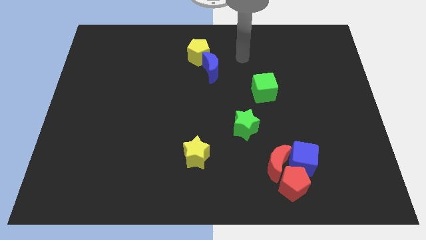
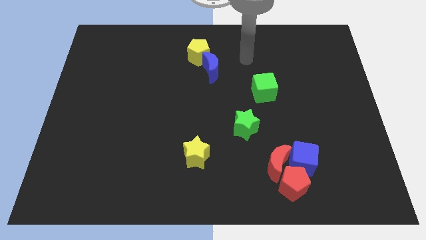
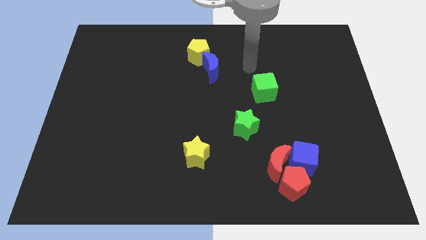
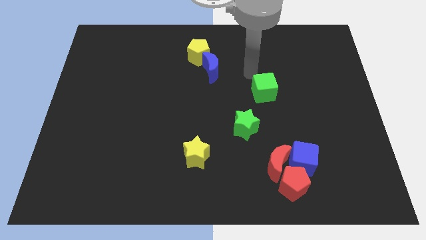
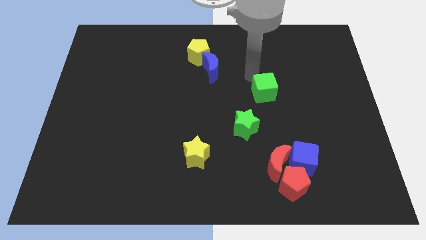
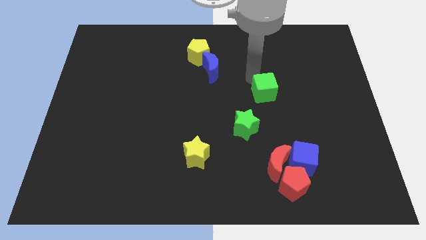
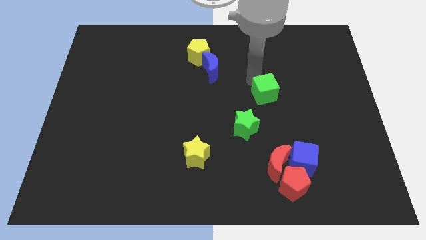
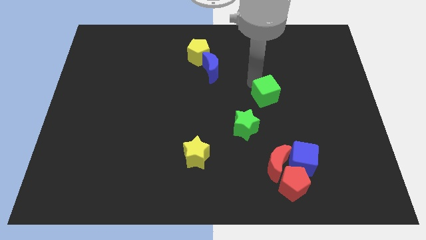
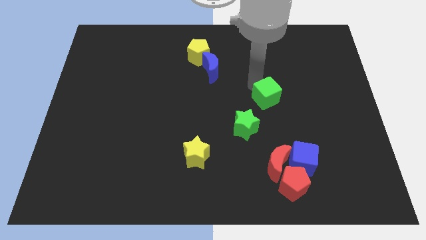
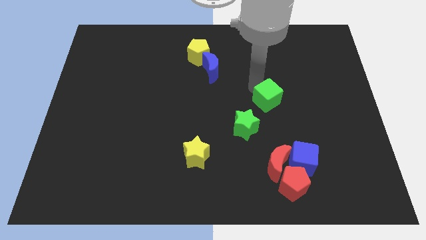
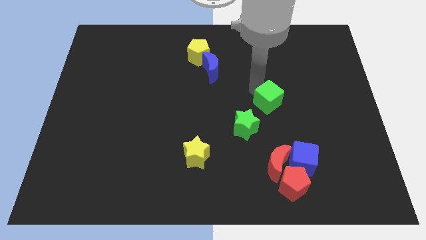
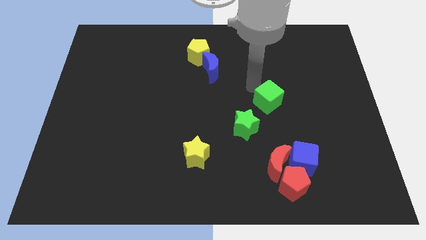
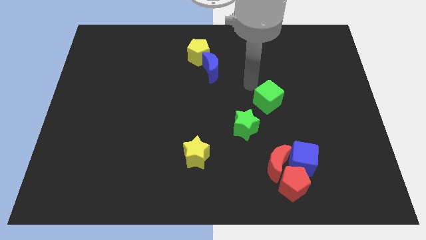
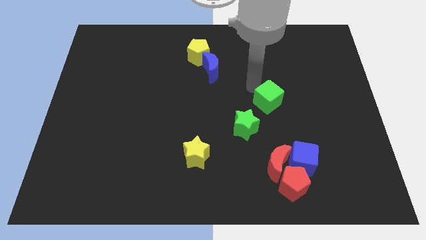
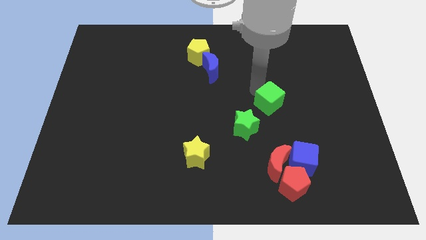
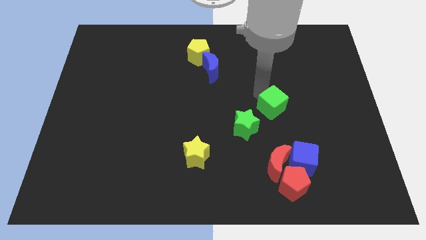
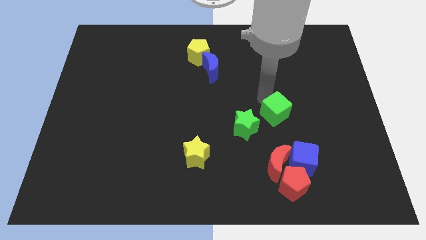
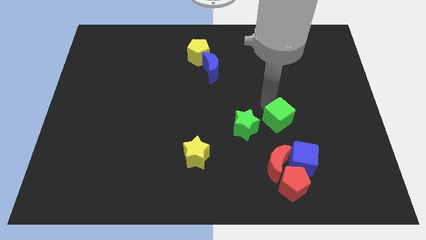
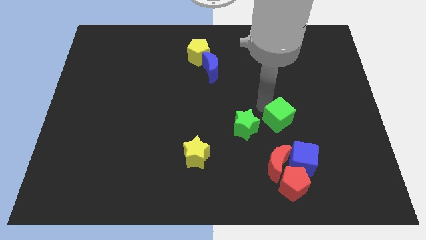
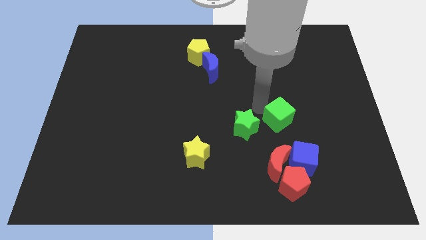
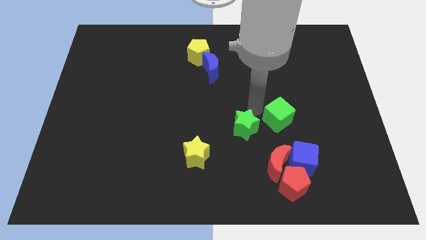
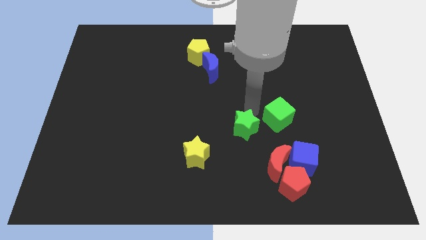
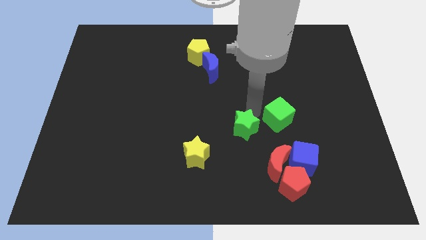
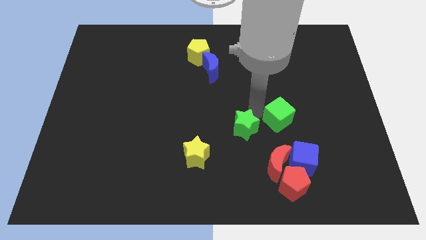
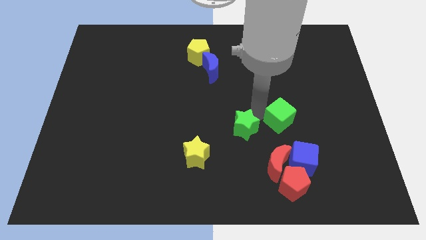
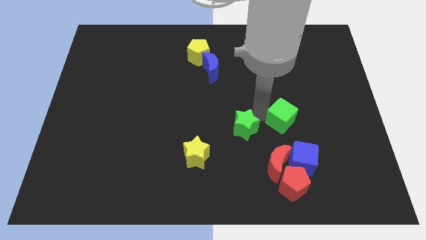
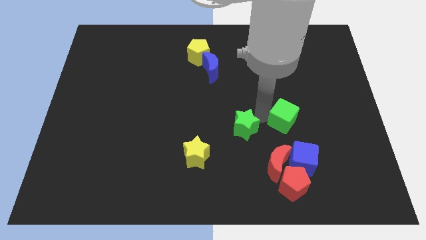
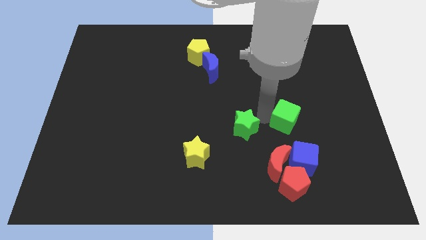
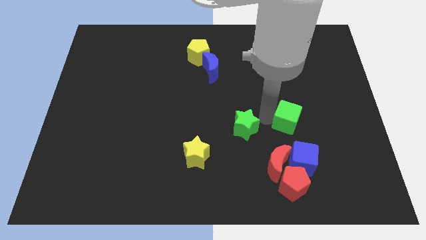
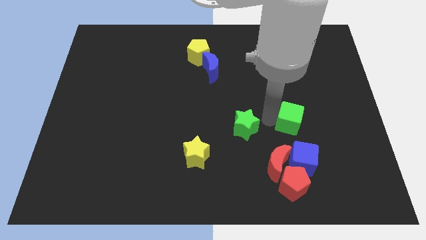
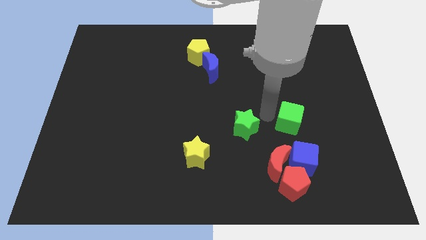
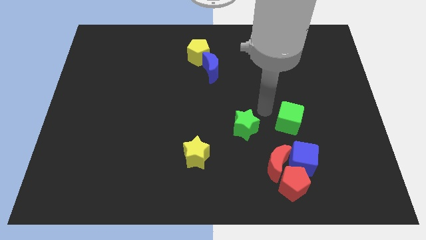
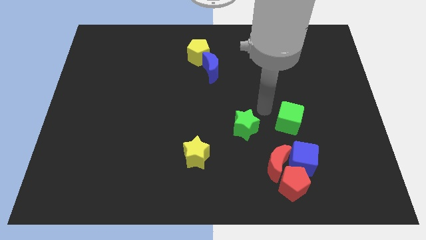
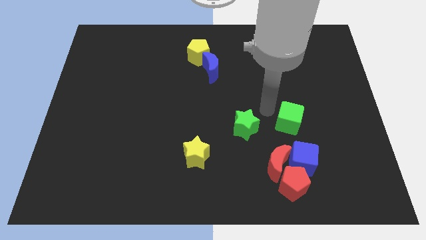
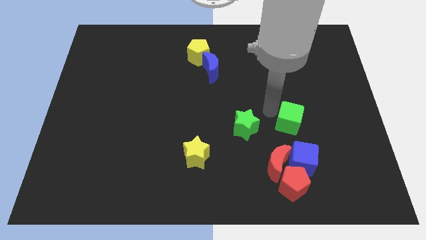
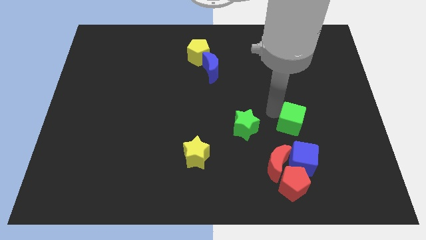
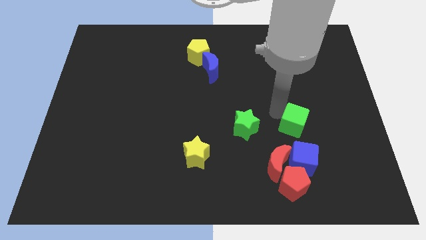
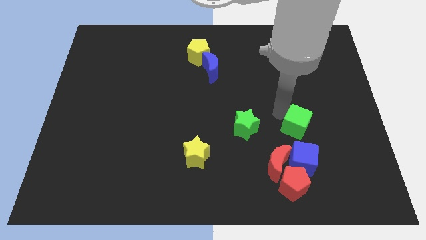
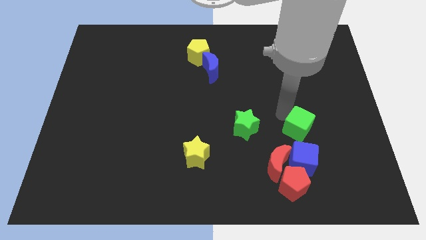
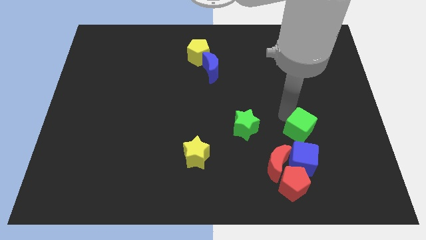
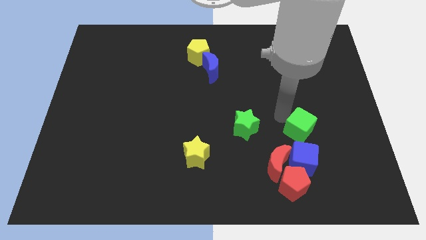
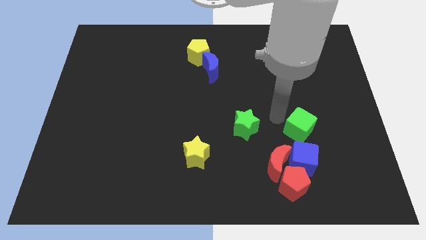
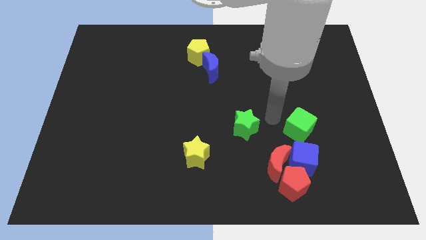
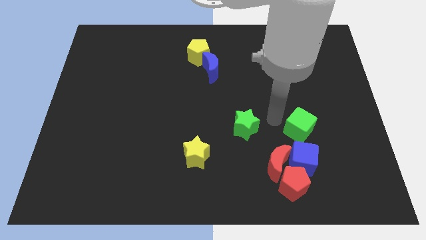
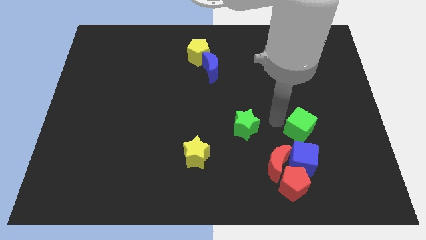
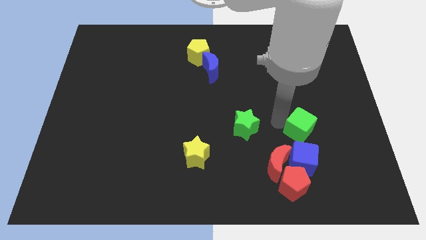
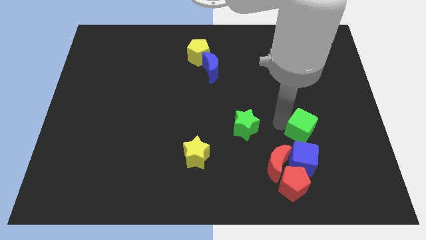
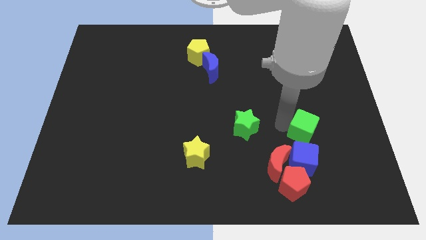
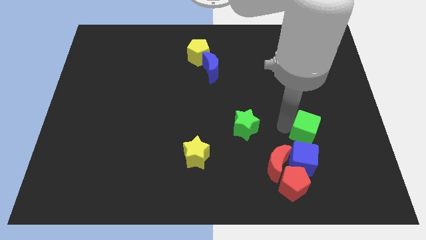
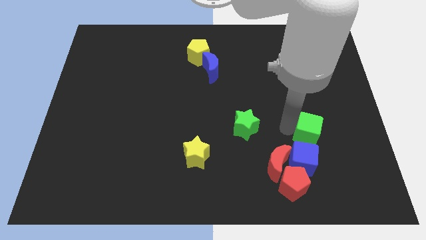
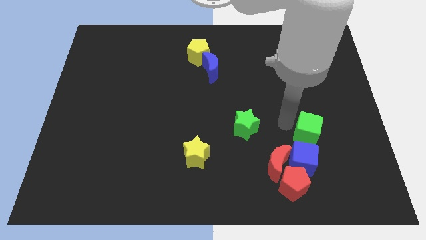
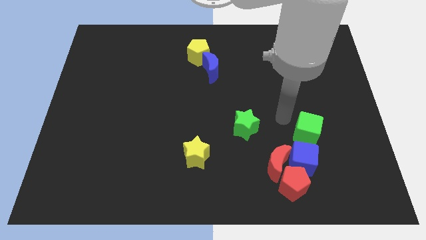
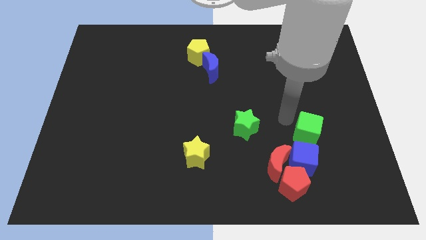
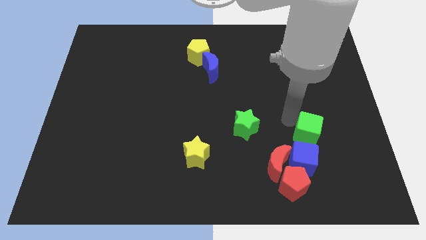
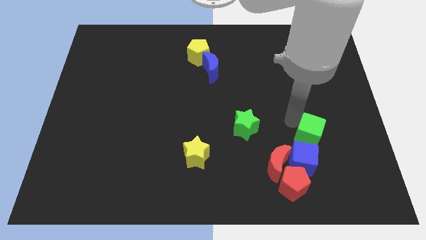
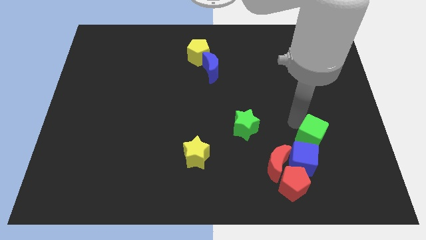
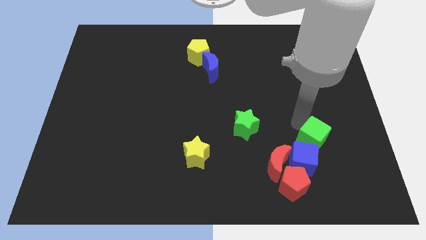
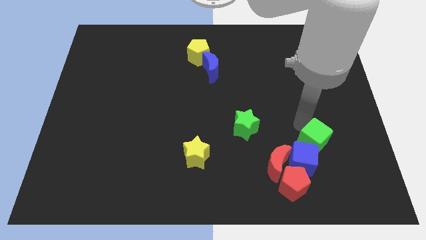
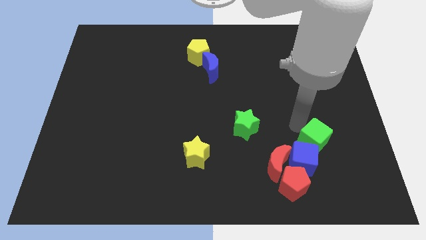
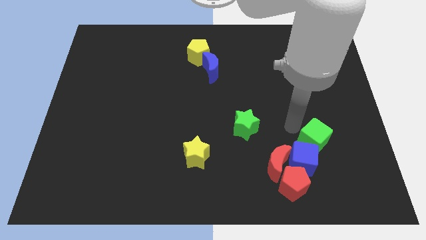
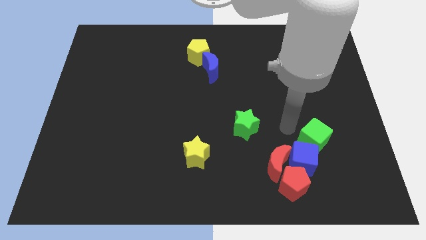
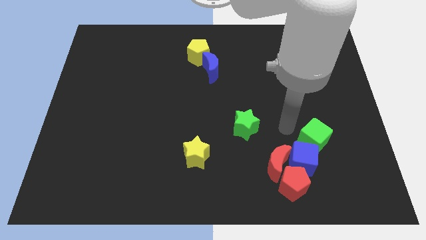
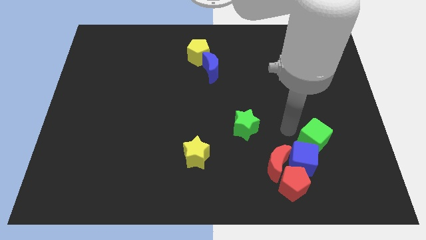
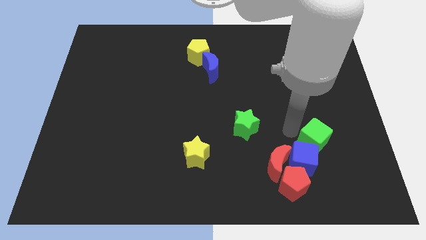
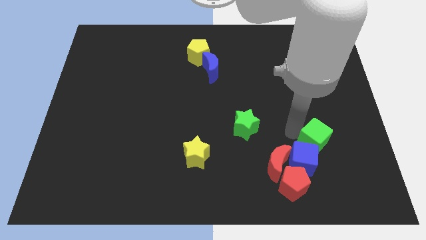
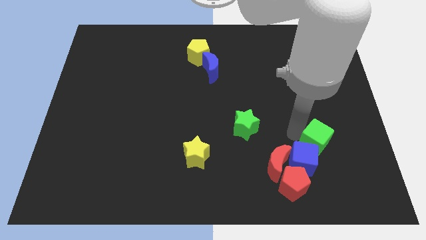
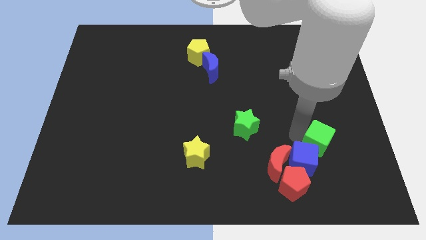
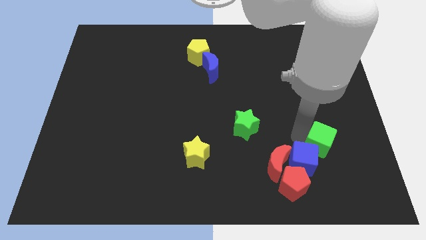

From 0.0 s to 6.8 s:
slide the green cube just right of the blue cube

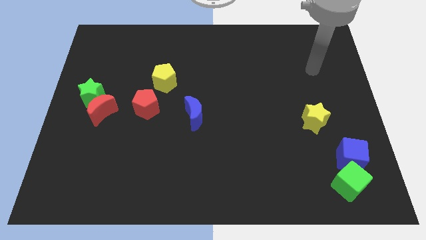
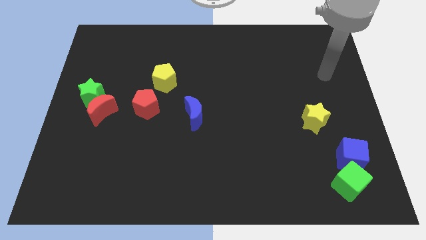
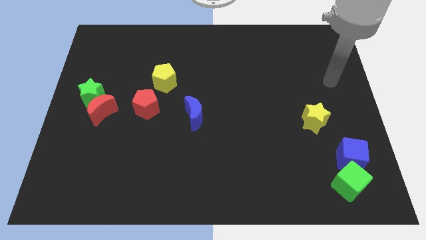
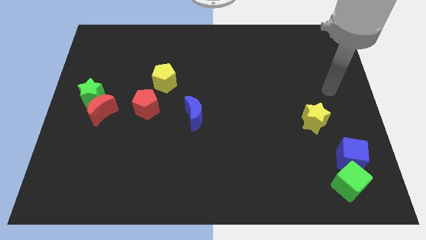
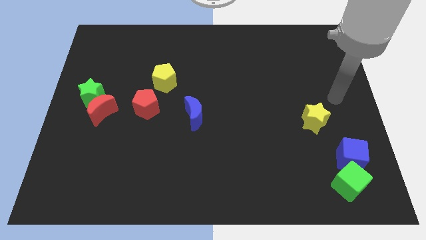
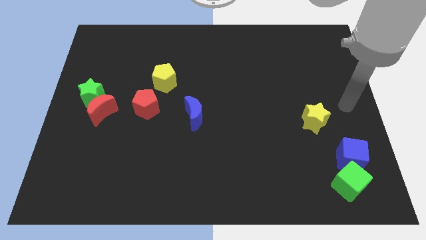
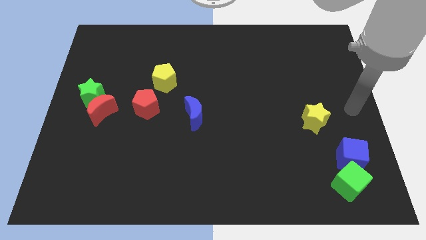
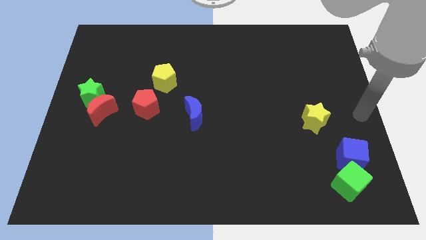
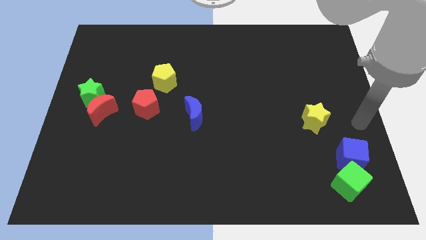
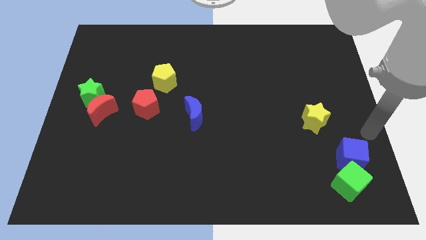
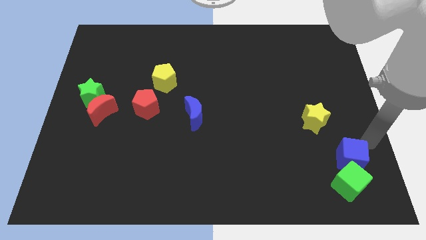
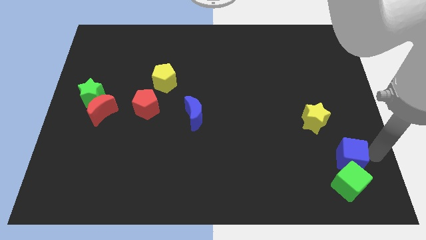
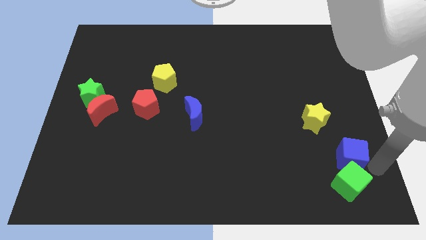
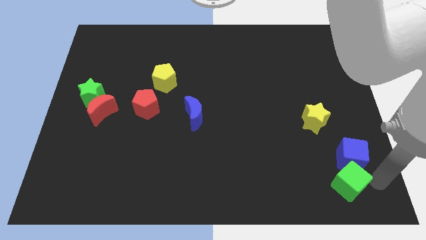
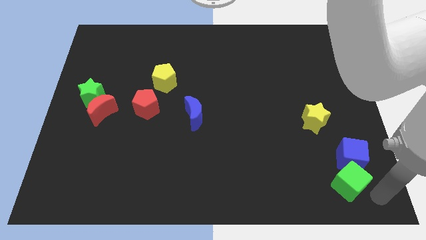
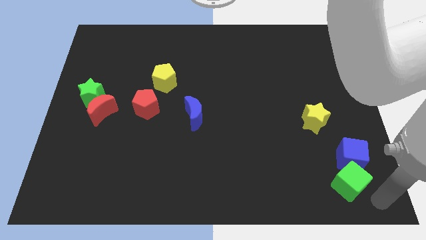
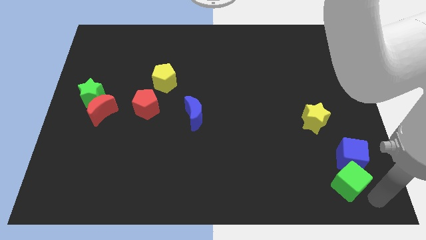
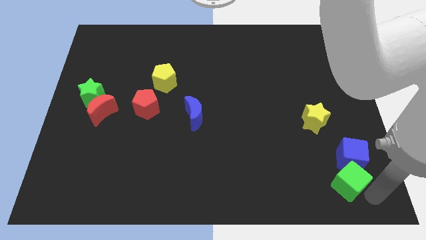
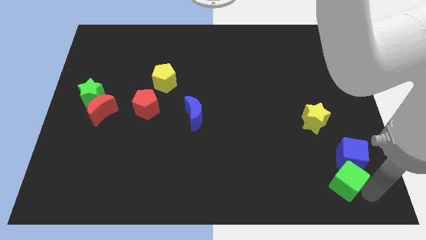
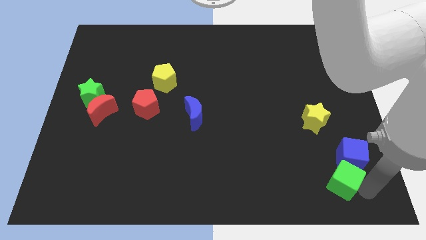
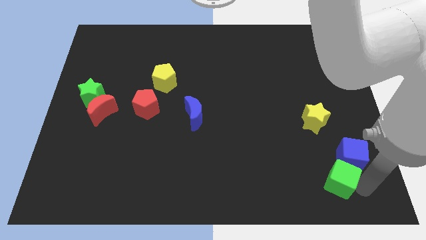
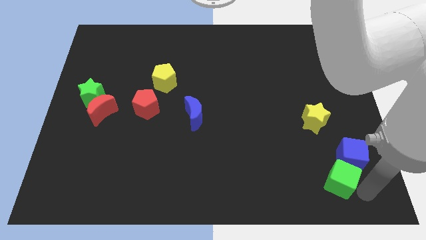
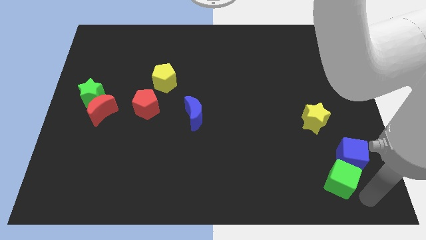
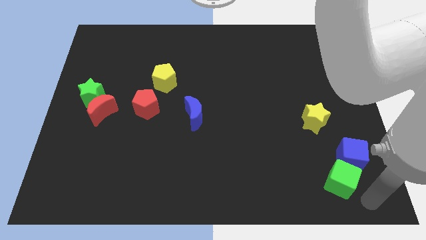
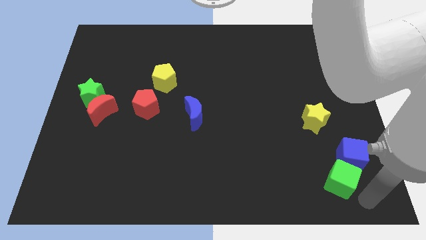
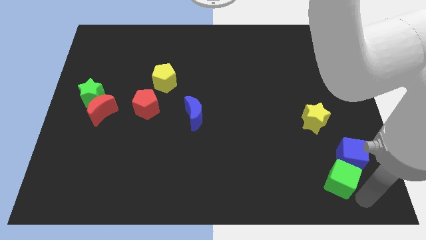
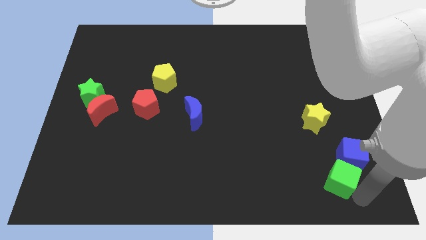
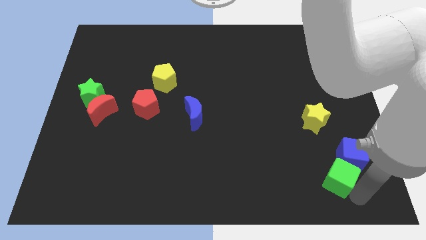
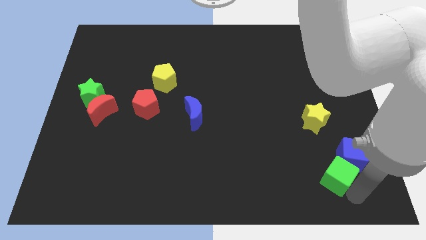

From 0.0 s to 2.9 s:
put the green cube to the left of the blue cube
